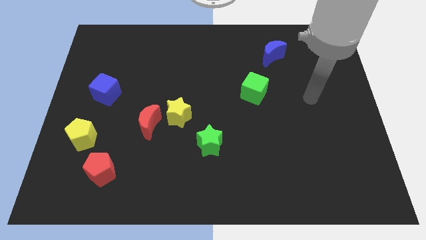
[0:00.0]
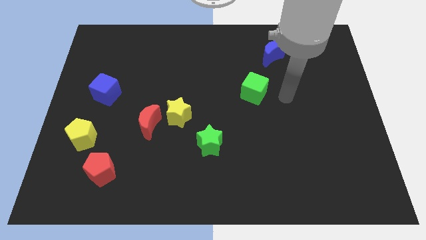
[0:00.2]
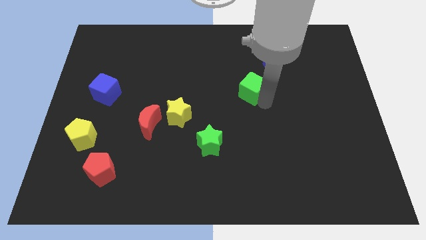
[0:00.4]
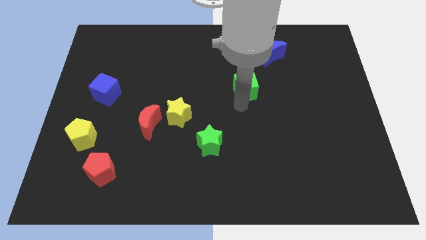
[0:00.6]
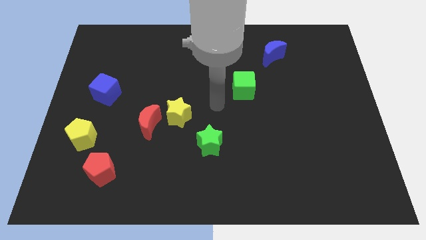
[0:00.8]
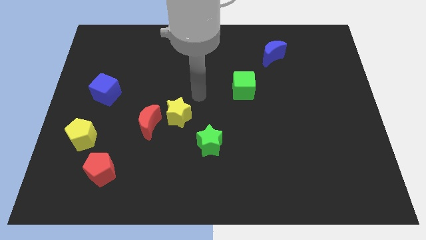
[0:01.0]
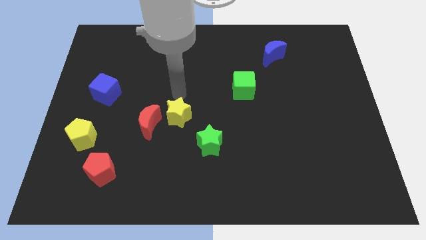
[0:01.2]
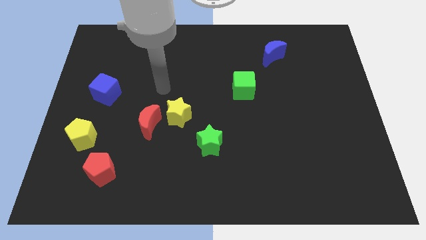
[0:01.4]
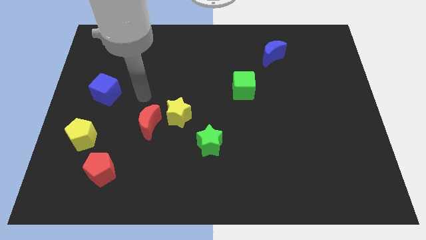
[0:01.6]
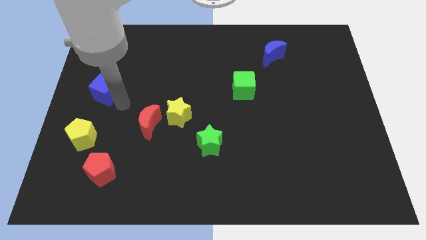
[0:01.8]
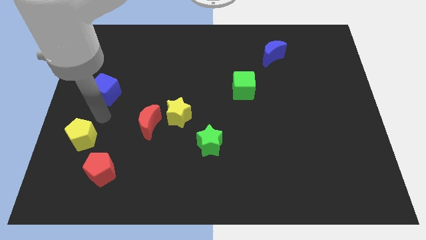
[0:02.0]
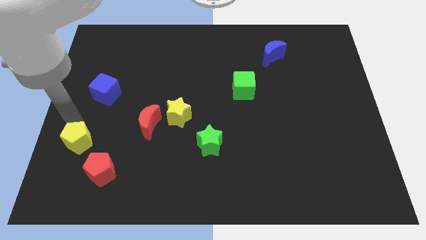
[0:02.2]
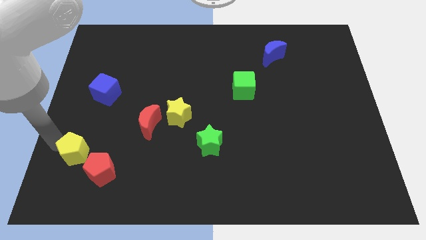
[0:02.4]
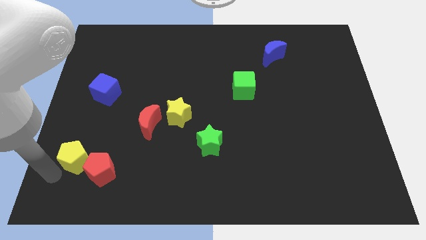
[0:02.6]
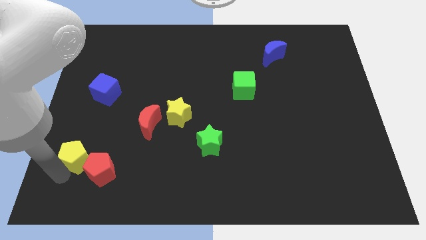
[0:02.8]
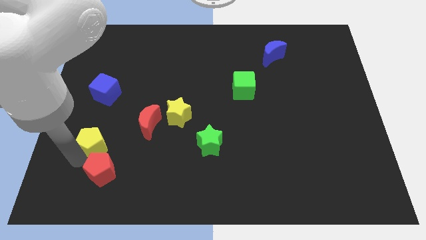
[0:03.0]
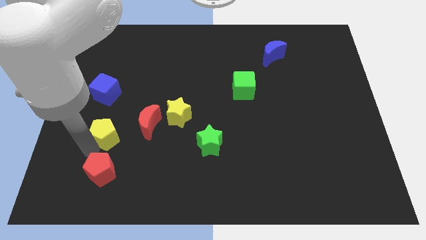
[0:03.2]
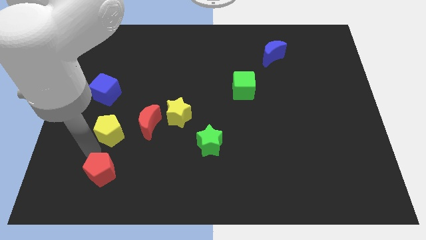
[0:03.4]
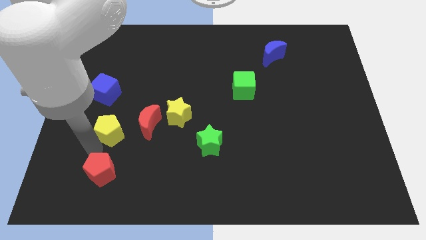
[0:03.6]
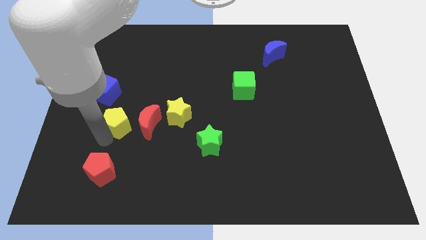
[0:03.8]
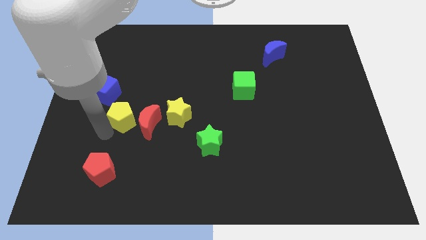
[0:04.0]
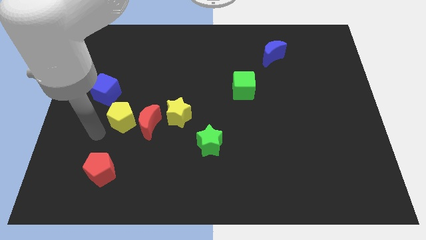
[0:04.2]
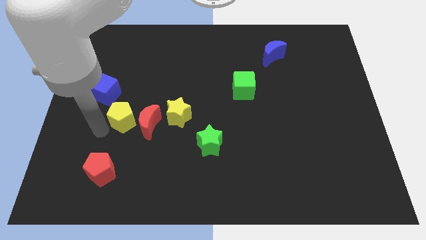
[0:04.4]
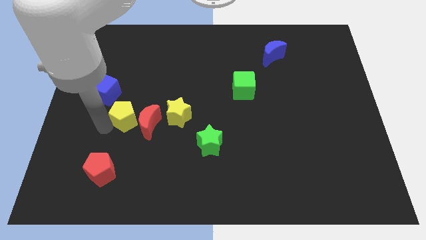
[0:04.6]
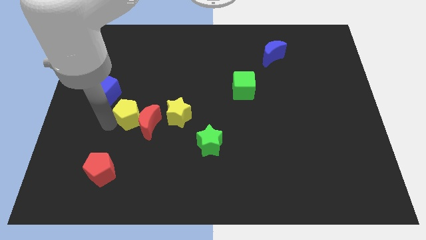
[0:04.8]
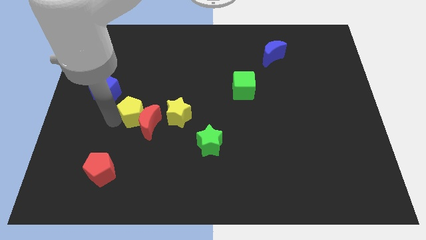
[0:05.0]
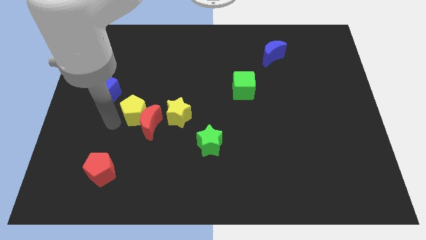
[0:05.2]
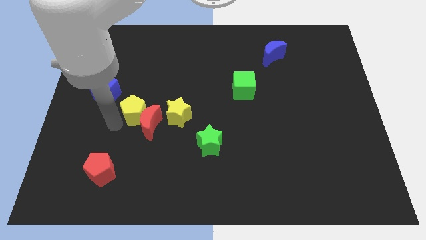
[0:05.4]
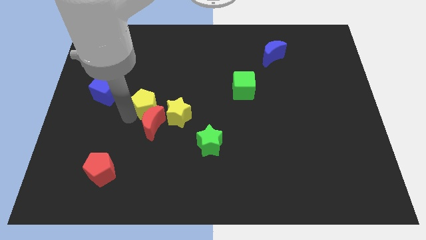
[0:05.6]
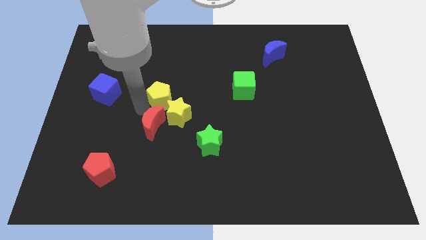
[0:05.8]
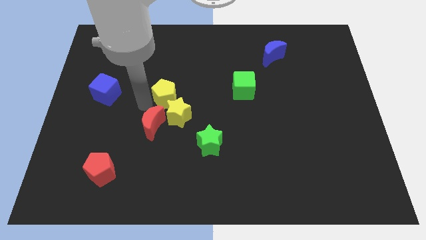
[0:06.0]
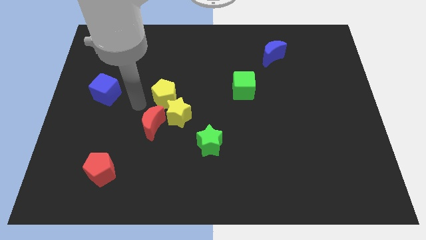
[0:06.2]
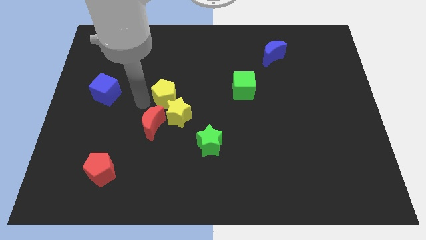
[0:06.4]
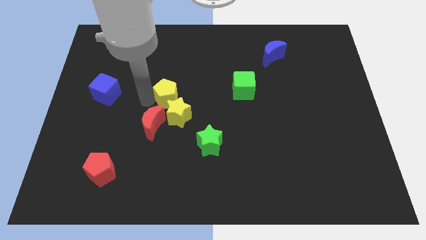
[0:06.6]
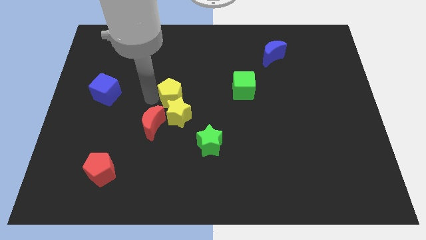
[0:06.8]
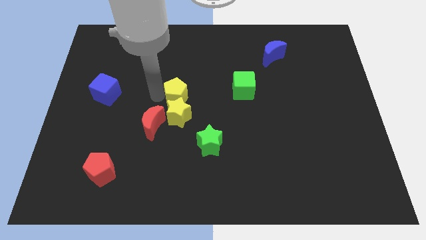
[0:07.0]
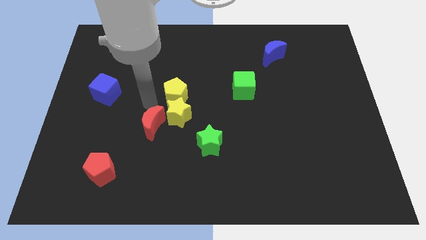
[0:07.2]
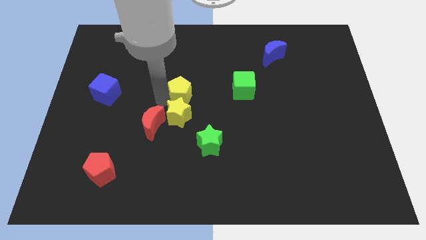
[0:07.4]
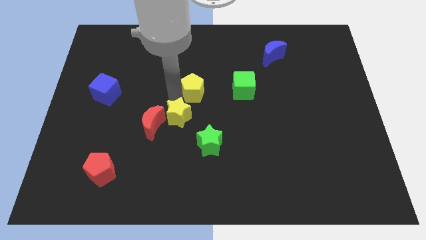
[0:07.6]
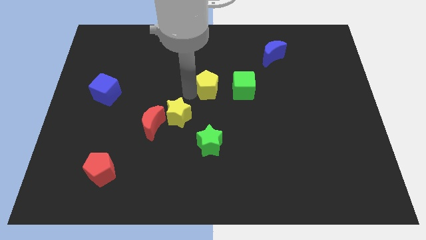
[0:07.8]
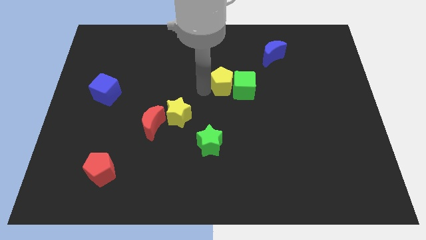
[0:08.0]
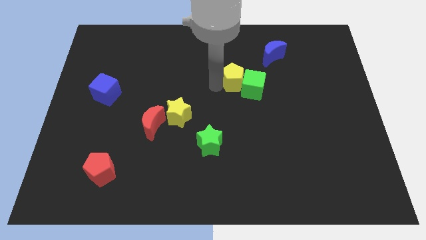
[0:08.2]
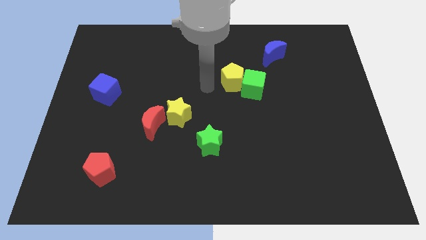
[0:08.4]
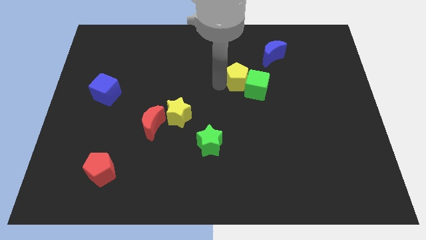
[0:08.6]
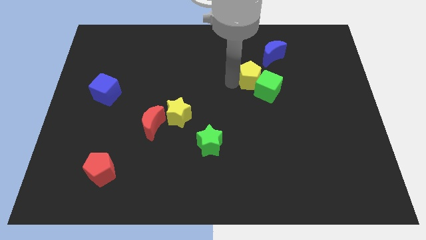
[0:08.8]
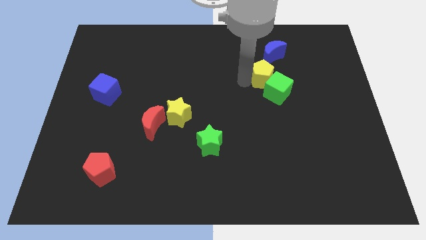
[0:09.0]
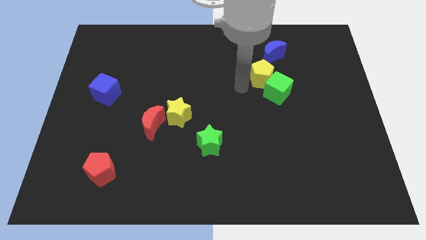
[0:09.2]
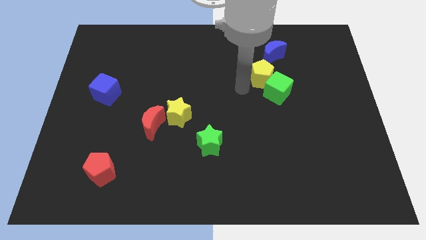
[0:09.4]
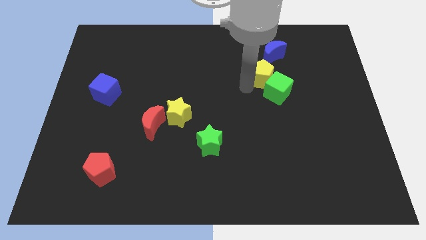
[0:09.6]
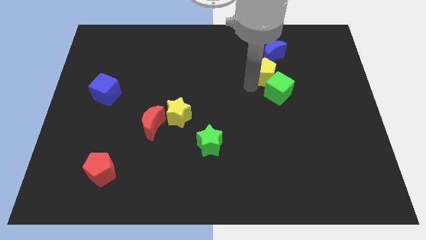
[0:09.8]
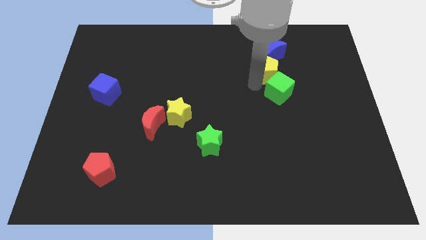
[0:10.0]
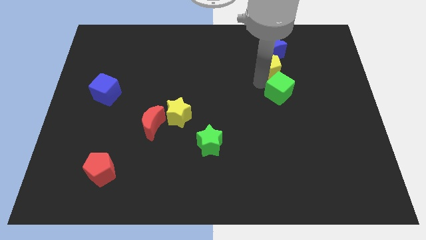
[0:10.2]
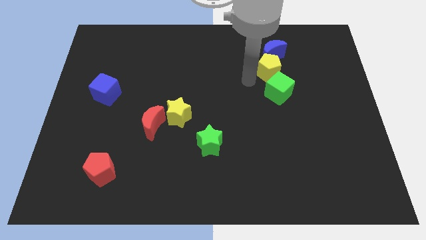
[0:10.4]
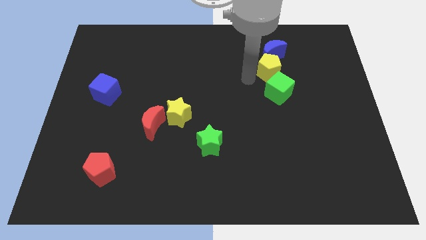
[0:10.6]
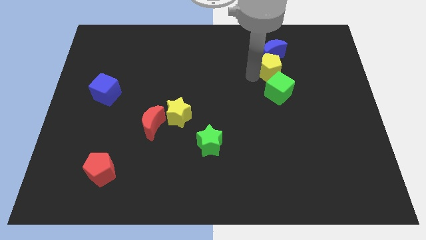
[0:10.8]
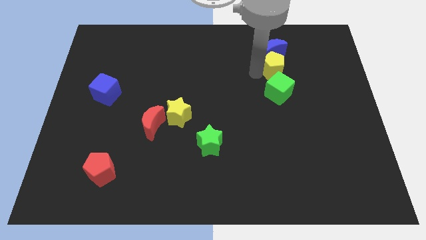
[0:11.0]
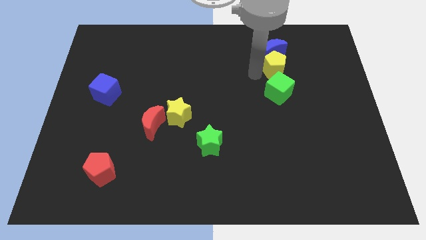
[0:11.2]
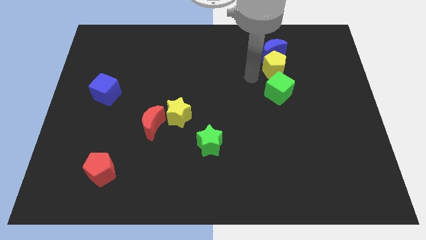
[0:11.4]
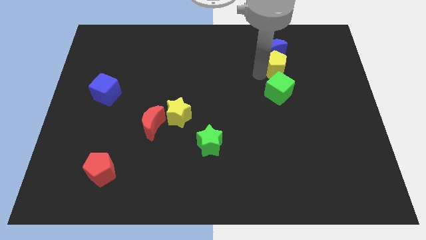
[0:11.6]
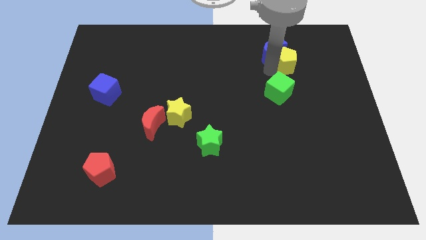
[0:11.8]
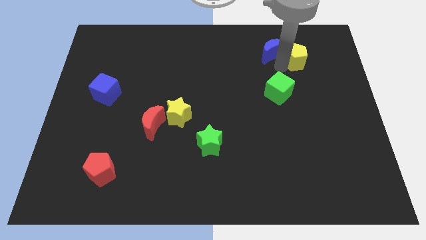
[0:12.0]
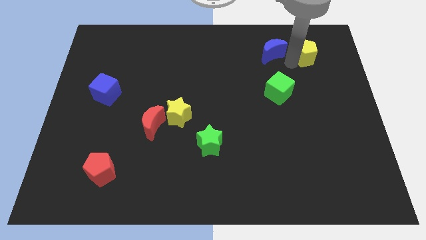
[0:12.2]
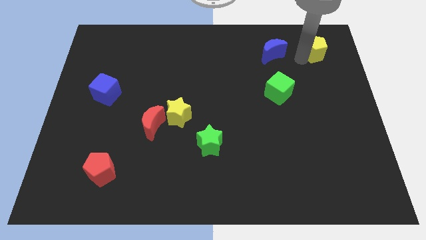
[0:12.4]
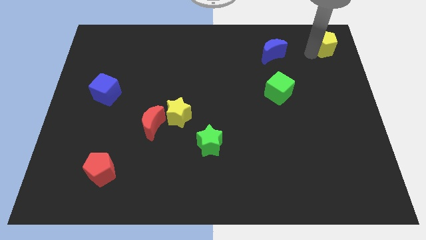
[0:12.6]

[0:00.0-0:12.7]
move the yellow pentagon to the top right corner
